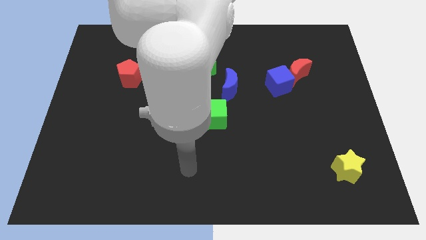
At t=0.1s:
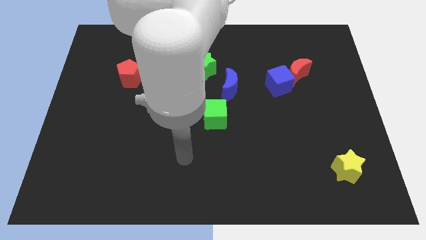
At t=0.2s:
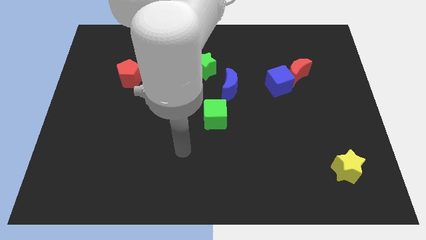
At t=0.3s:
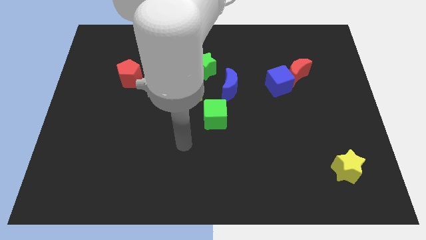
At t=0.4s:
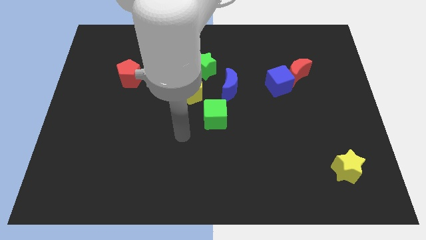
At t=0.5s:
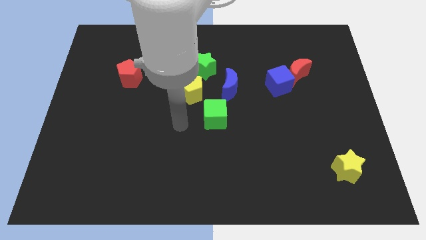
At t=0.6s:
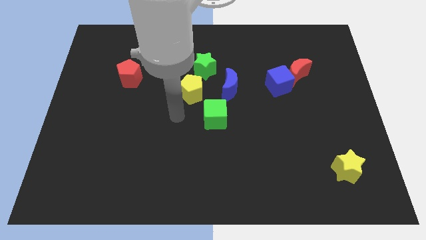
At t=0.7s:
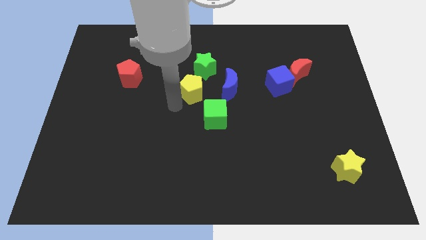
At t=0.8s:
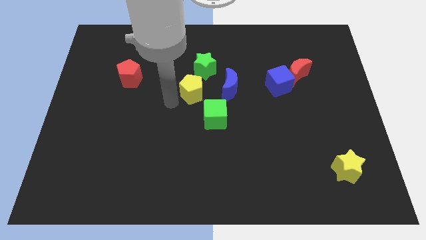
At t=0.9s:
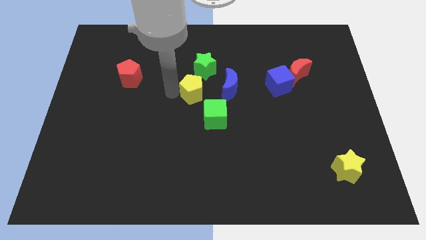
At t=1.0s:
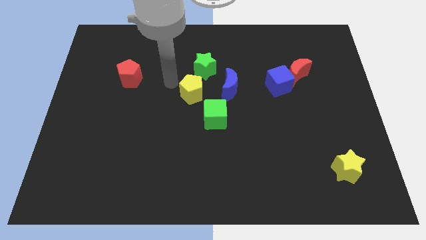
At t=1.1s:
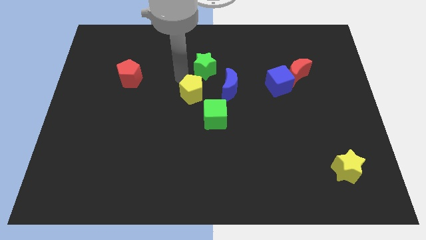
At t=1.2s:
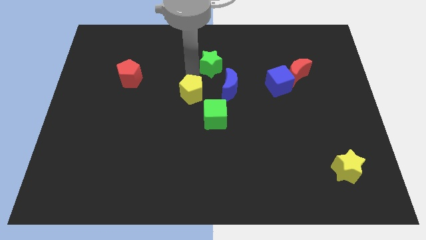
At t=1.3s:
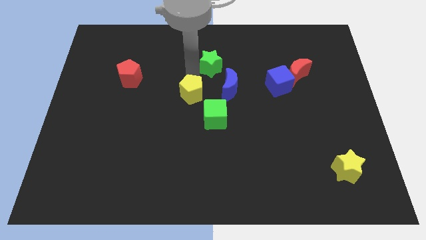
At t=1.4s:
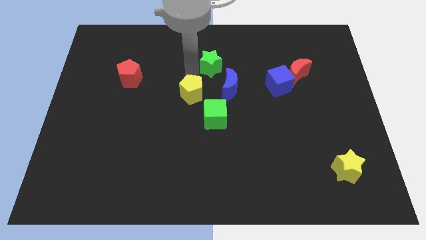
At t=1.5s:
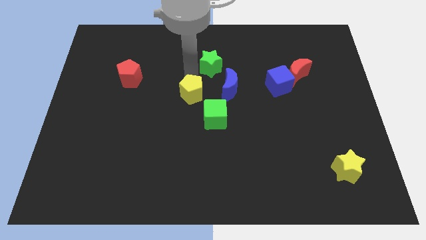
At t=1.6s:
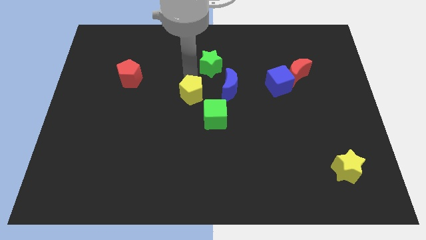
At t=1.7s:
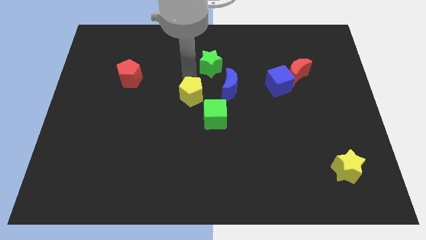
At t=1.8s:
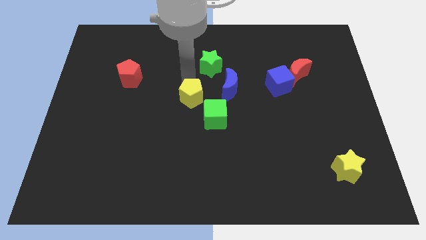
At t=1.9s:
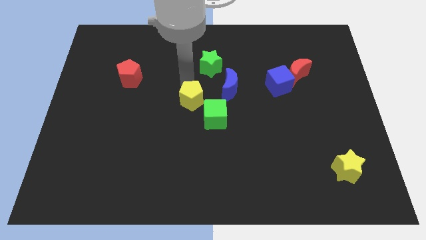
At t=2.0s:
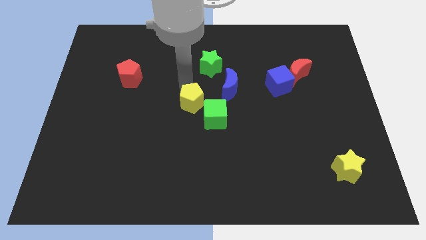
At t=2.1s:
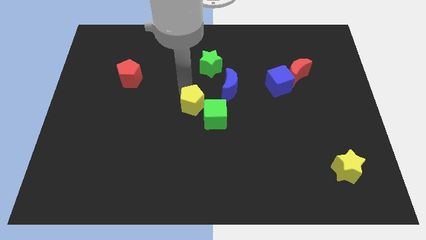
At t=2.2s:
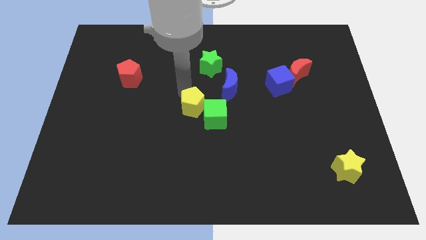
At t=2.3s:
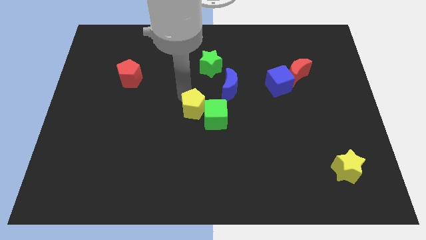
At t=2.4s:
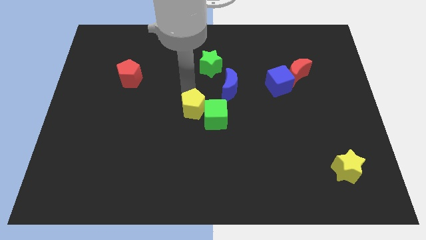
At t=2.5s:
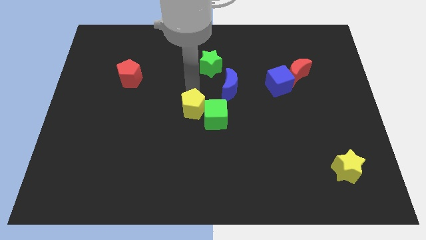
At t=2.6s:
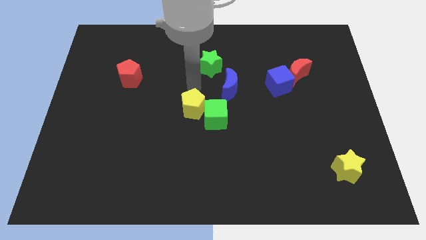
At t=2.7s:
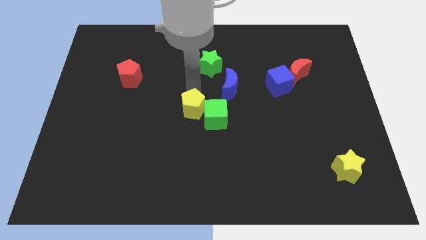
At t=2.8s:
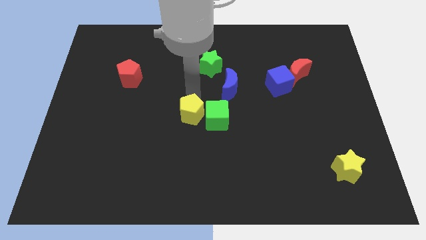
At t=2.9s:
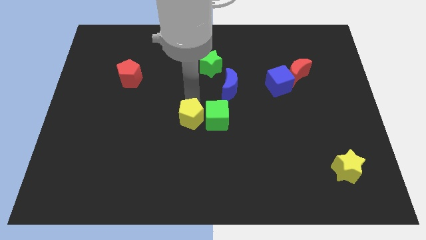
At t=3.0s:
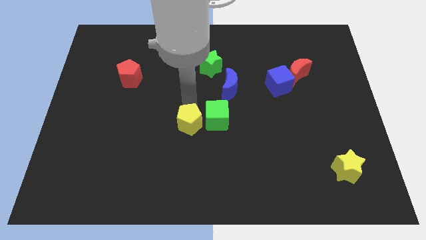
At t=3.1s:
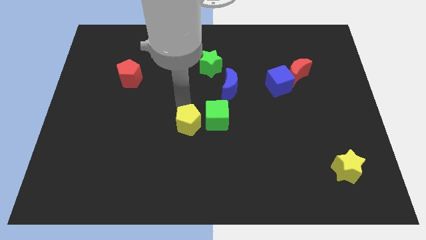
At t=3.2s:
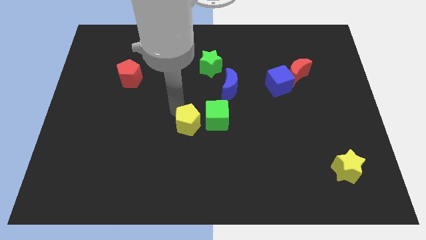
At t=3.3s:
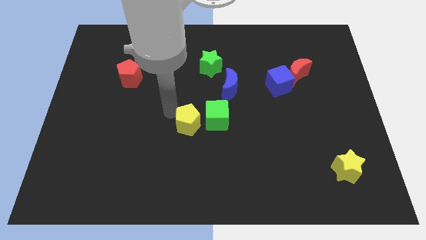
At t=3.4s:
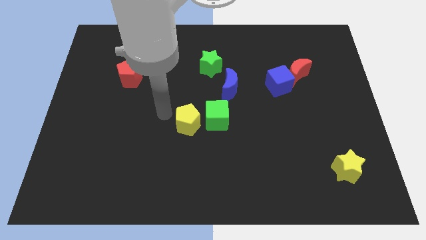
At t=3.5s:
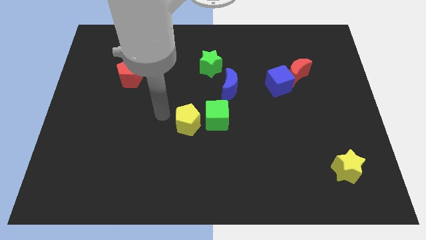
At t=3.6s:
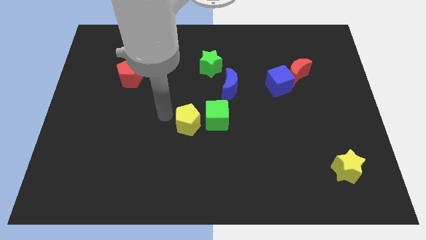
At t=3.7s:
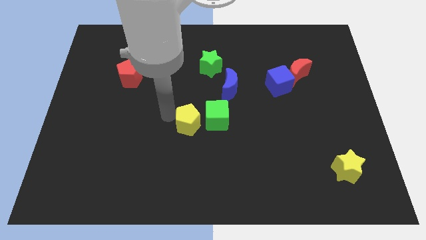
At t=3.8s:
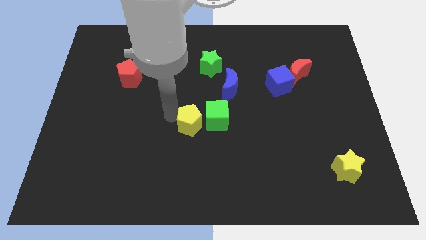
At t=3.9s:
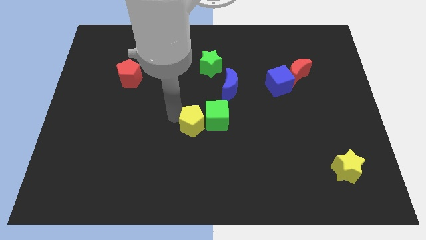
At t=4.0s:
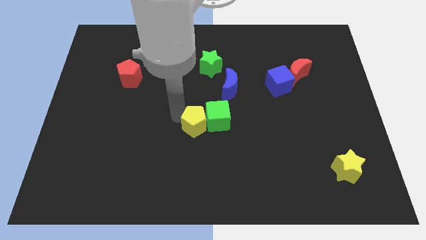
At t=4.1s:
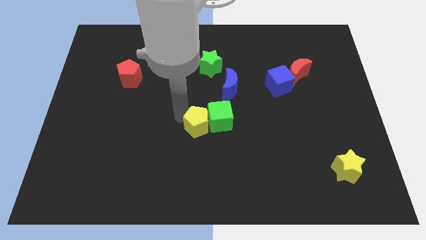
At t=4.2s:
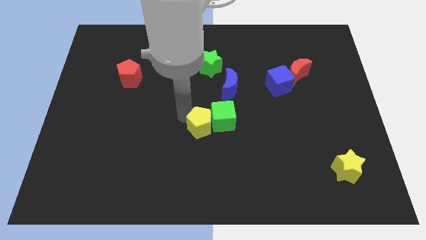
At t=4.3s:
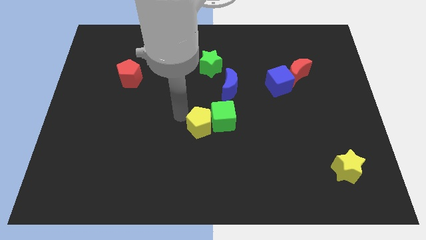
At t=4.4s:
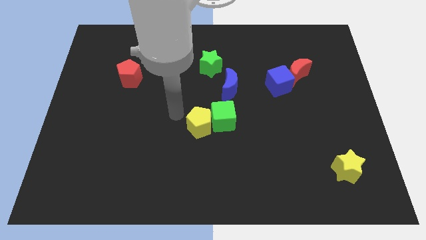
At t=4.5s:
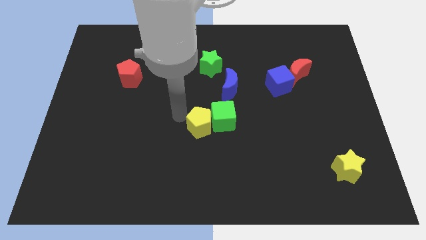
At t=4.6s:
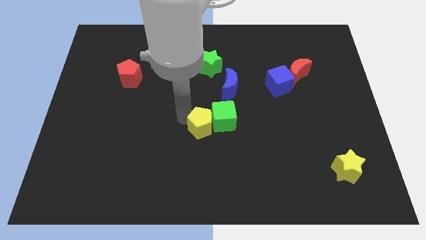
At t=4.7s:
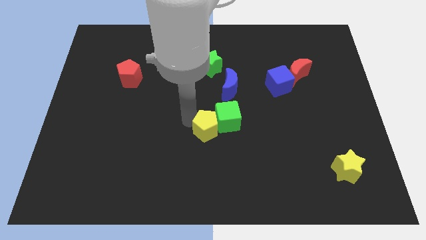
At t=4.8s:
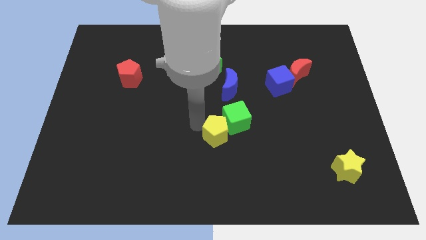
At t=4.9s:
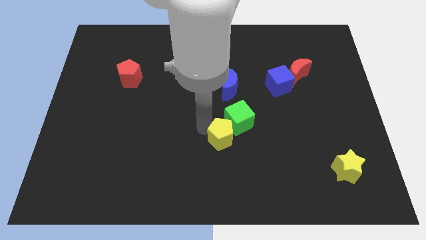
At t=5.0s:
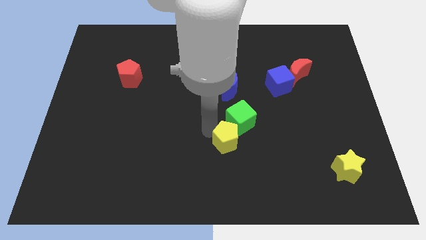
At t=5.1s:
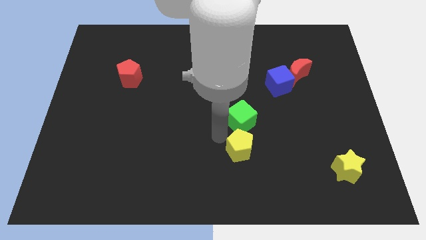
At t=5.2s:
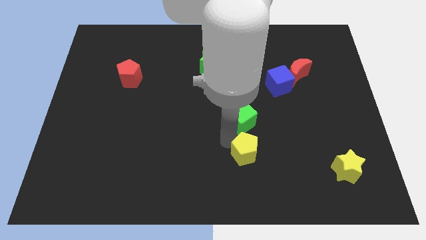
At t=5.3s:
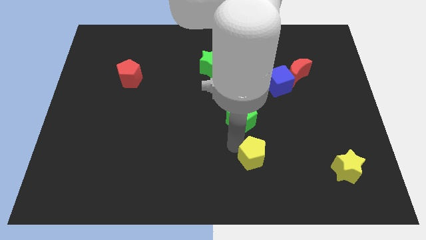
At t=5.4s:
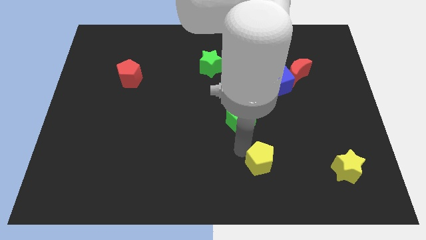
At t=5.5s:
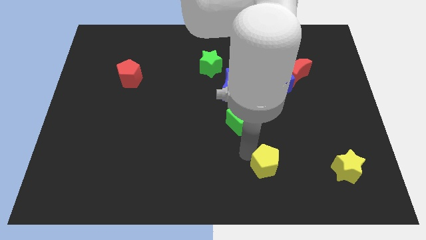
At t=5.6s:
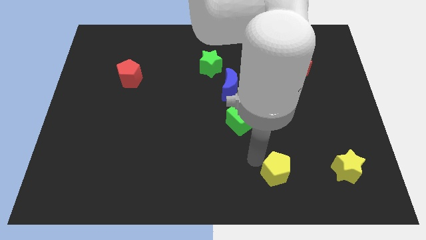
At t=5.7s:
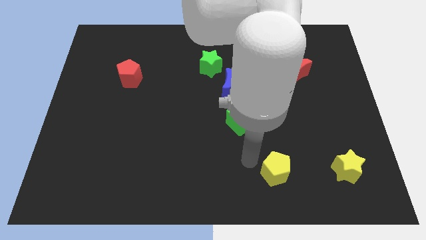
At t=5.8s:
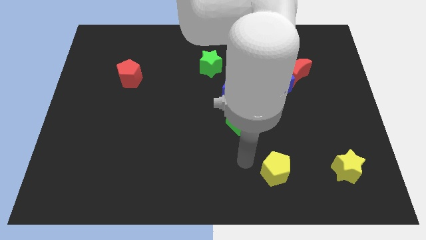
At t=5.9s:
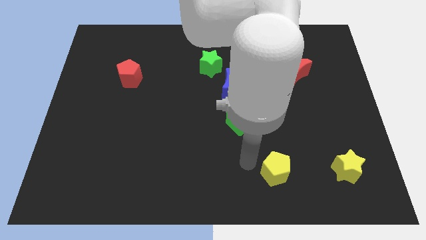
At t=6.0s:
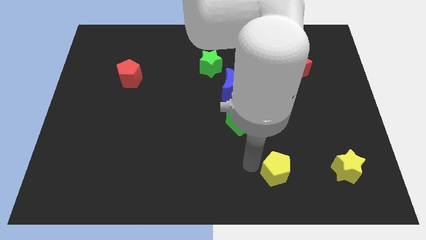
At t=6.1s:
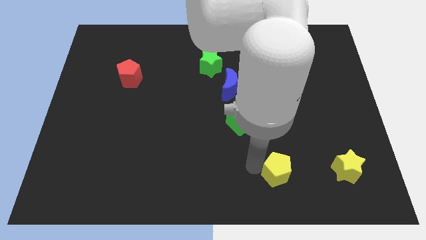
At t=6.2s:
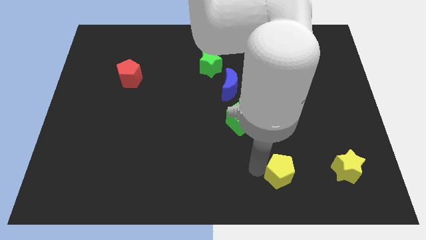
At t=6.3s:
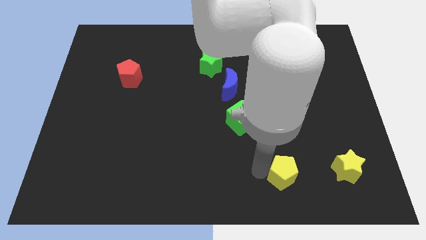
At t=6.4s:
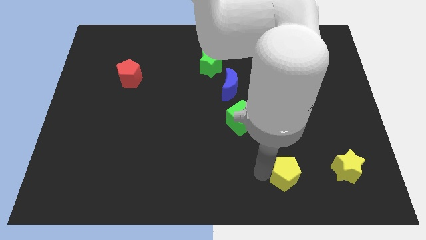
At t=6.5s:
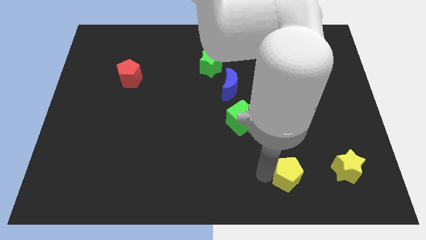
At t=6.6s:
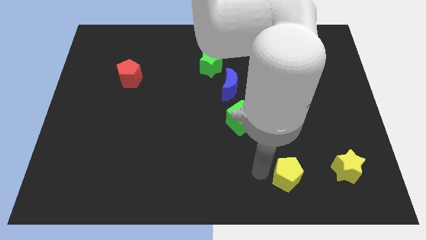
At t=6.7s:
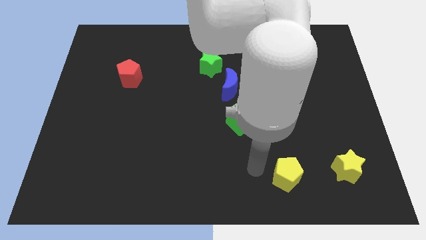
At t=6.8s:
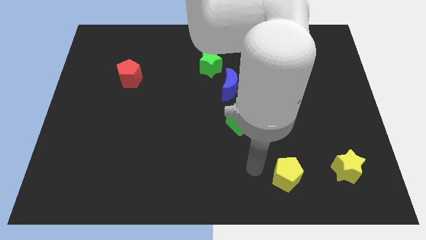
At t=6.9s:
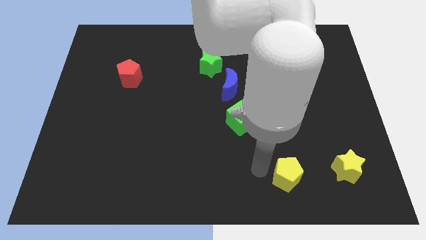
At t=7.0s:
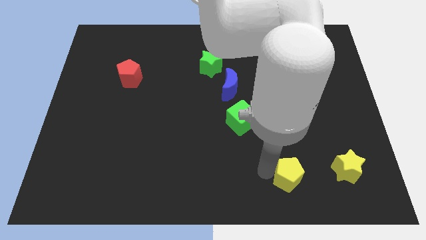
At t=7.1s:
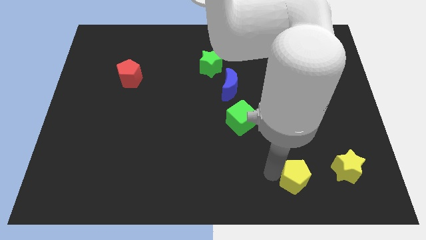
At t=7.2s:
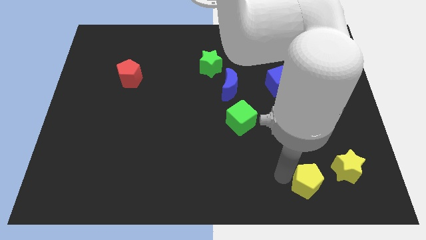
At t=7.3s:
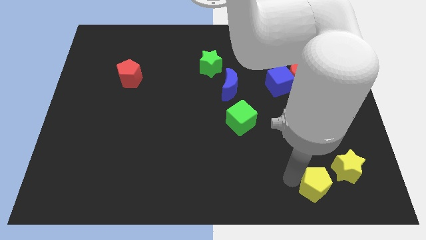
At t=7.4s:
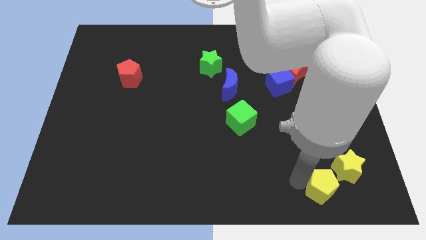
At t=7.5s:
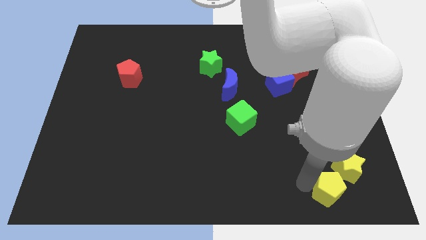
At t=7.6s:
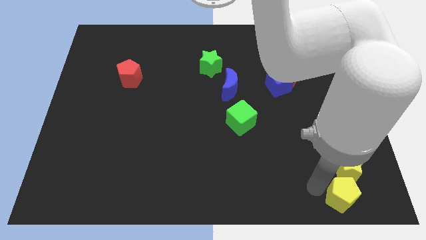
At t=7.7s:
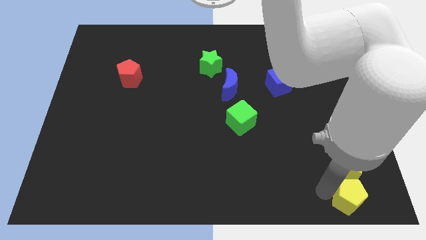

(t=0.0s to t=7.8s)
slide the yellow pentagon to the lower right corner
